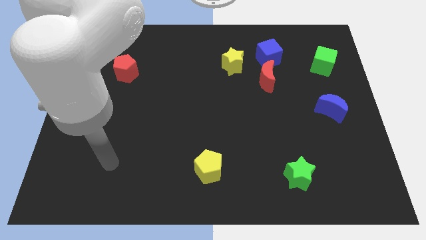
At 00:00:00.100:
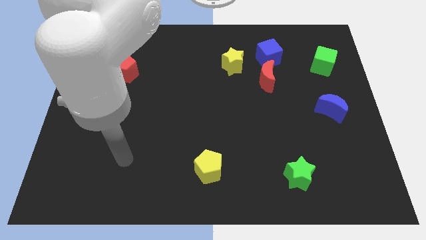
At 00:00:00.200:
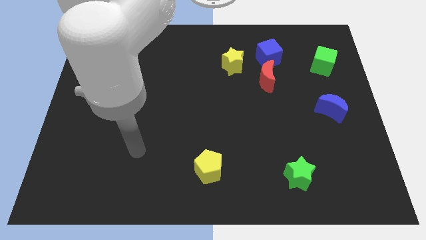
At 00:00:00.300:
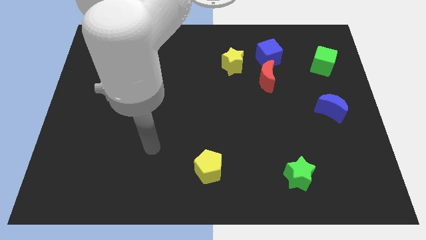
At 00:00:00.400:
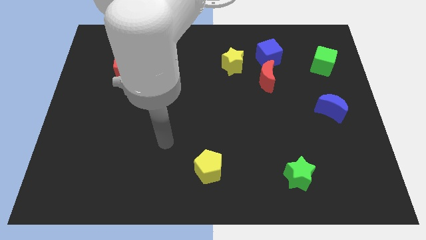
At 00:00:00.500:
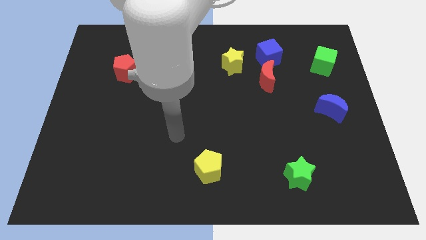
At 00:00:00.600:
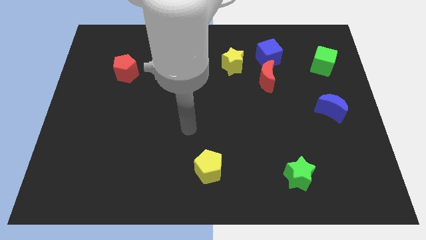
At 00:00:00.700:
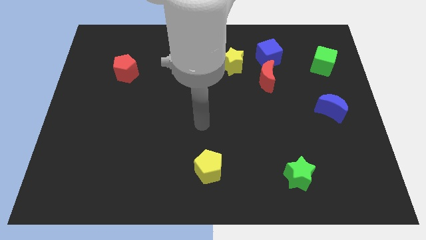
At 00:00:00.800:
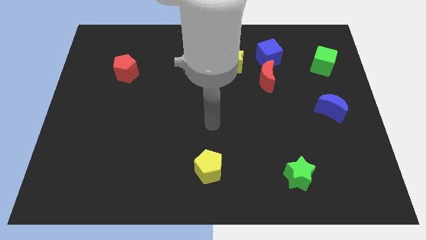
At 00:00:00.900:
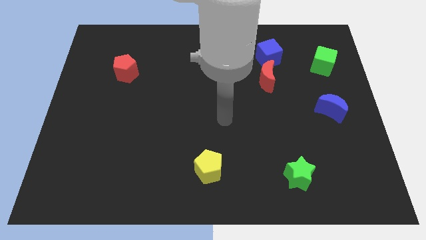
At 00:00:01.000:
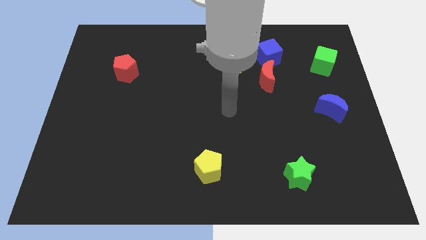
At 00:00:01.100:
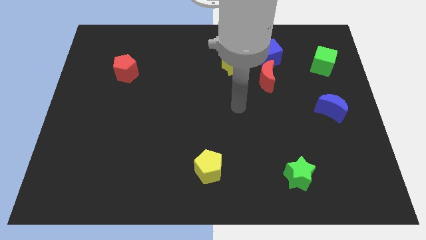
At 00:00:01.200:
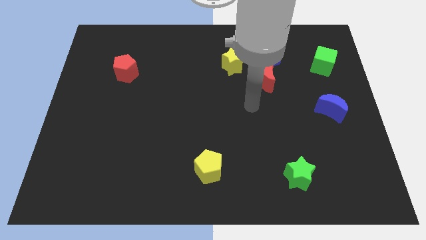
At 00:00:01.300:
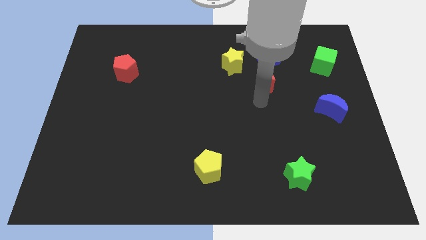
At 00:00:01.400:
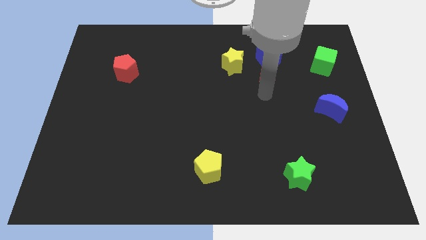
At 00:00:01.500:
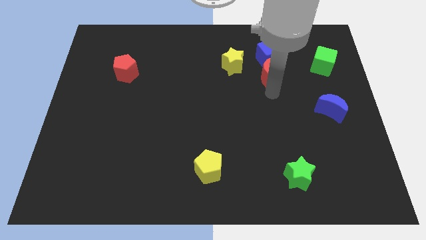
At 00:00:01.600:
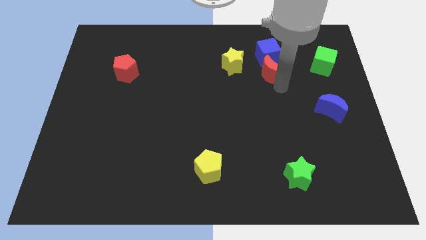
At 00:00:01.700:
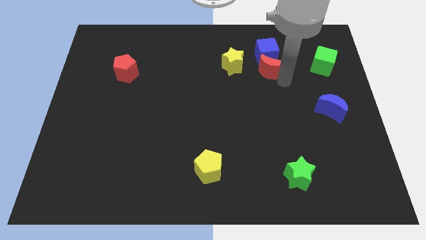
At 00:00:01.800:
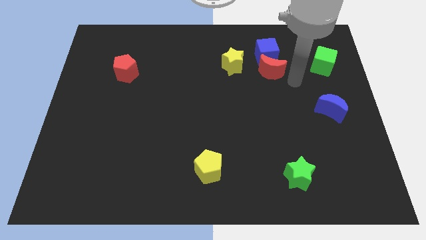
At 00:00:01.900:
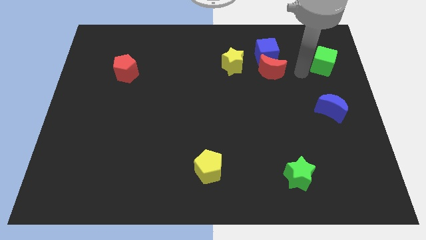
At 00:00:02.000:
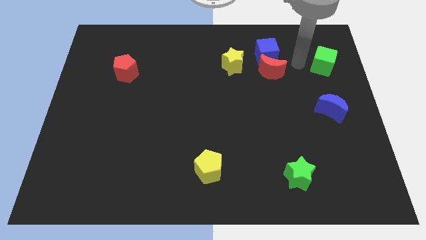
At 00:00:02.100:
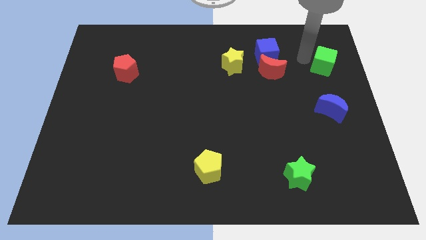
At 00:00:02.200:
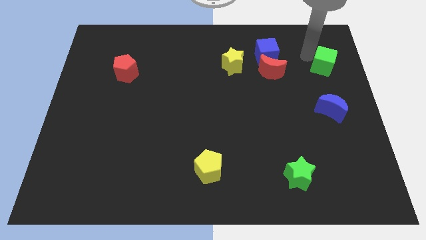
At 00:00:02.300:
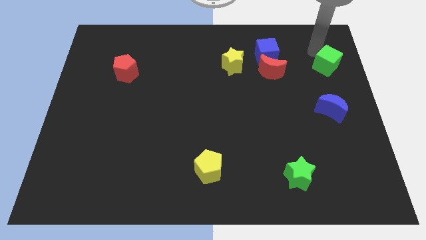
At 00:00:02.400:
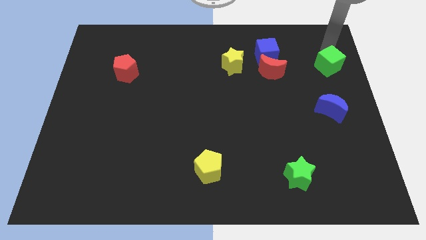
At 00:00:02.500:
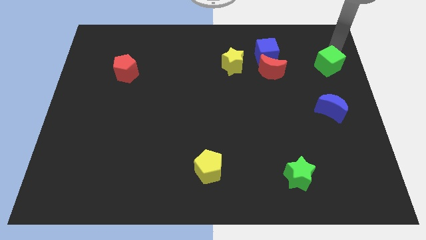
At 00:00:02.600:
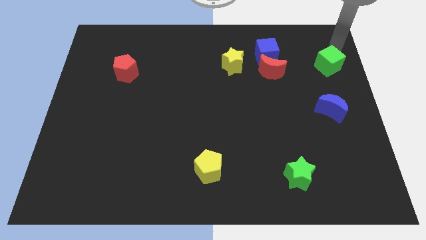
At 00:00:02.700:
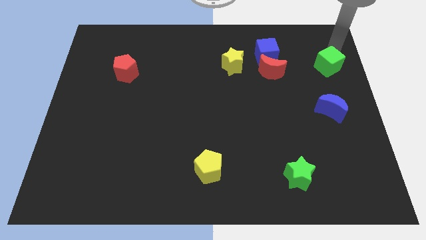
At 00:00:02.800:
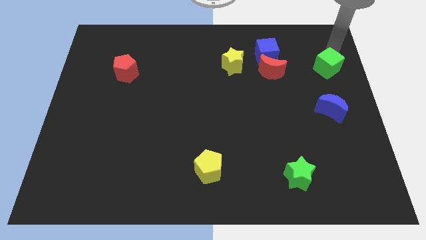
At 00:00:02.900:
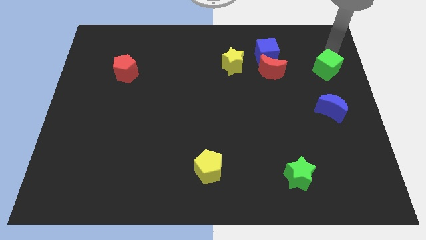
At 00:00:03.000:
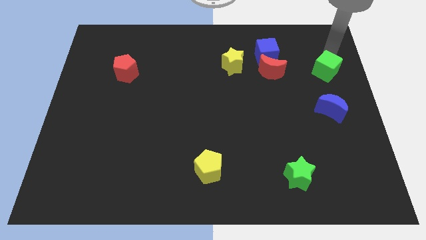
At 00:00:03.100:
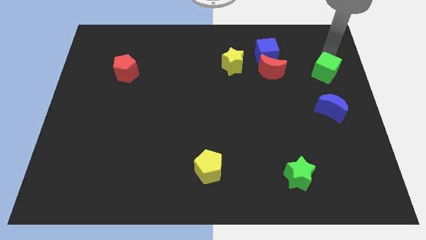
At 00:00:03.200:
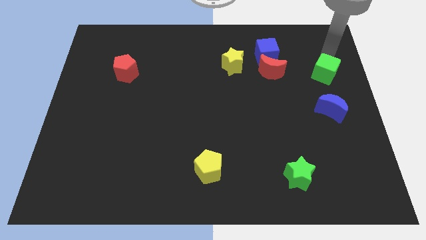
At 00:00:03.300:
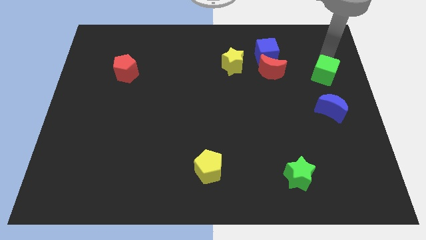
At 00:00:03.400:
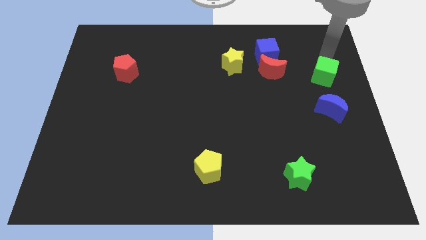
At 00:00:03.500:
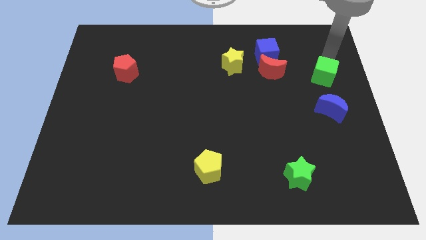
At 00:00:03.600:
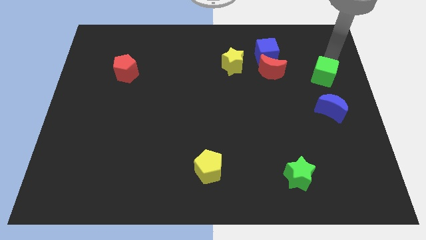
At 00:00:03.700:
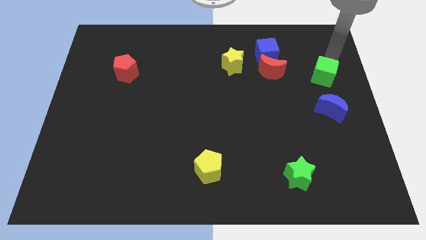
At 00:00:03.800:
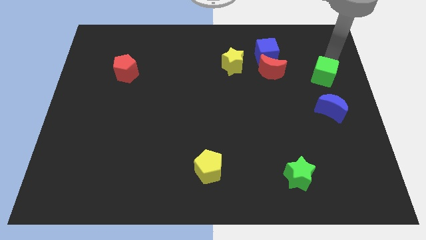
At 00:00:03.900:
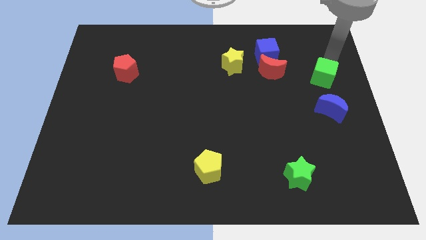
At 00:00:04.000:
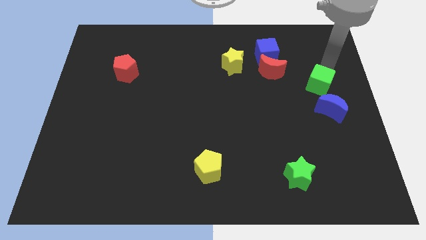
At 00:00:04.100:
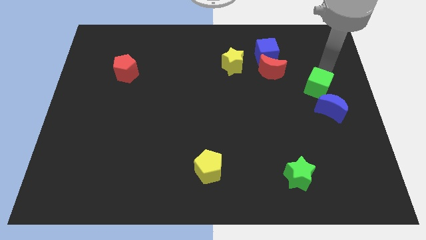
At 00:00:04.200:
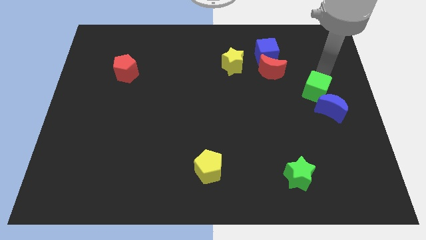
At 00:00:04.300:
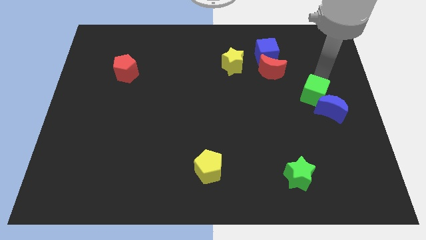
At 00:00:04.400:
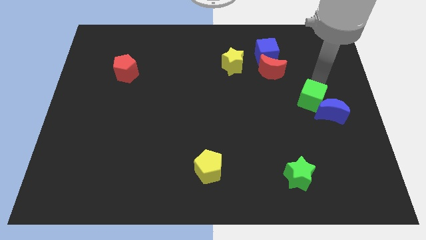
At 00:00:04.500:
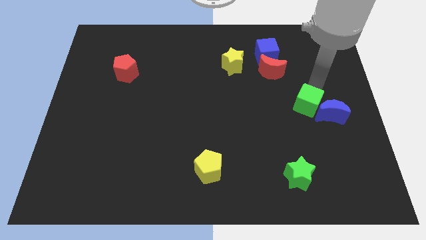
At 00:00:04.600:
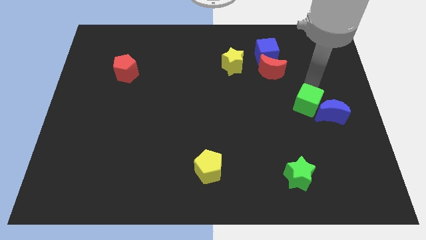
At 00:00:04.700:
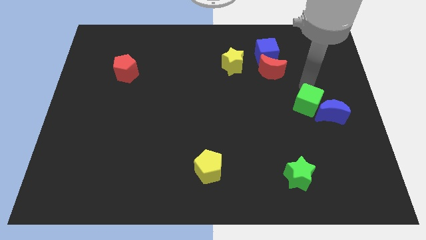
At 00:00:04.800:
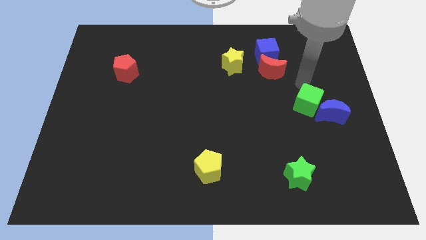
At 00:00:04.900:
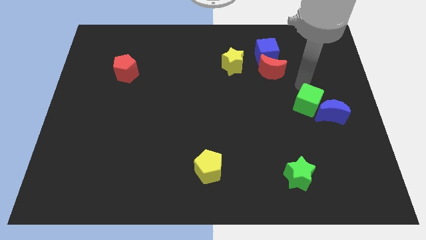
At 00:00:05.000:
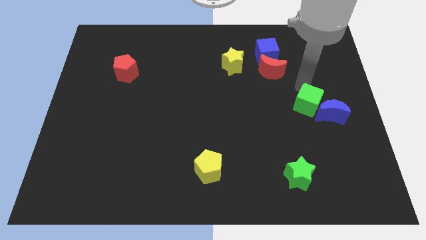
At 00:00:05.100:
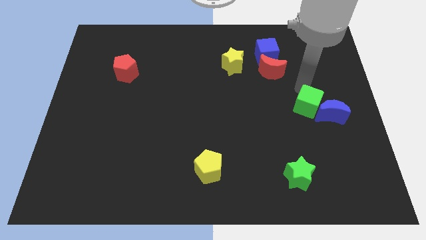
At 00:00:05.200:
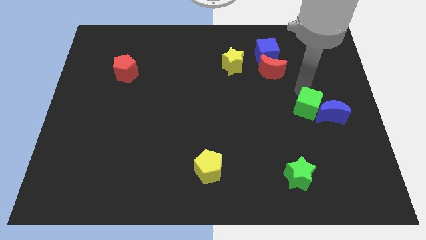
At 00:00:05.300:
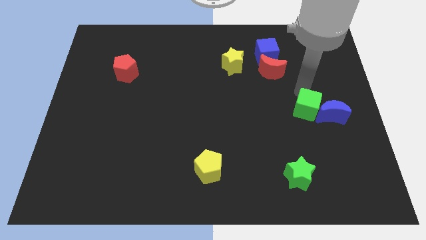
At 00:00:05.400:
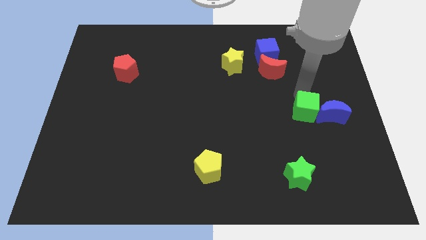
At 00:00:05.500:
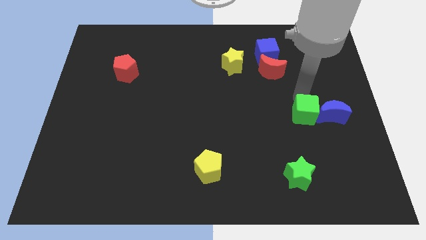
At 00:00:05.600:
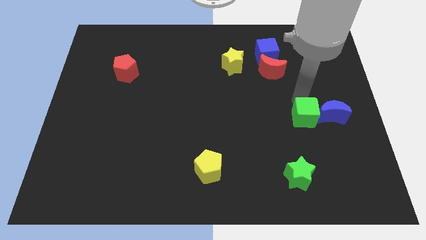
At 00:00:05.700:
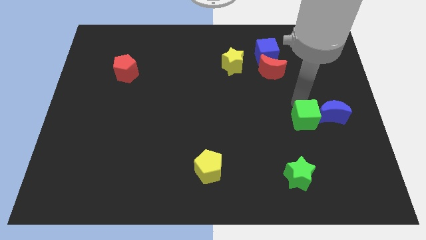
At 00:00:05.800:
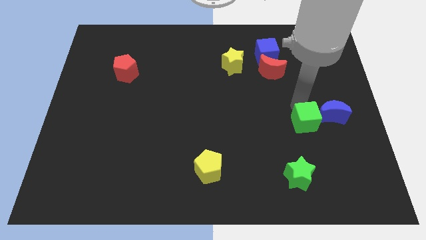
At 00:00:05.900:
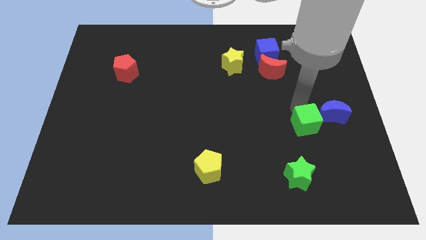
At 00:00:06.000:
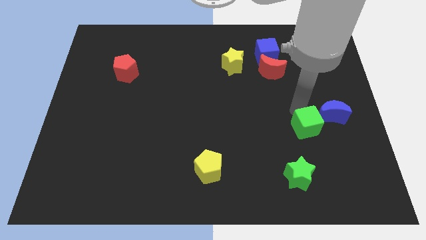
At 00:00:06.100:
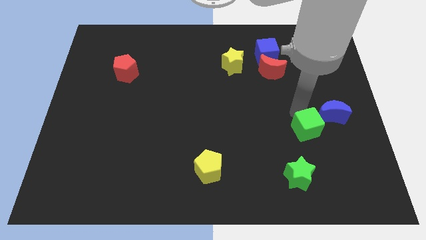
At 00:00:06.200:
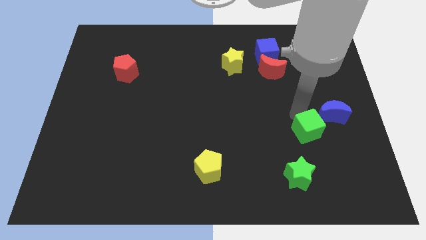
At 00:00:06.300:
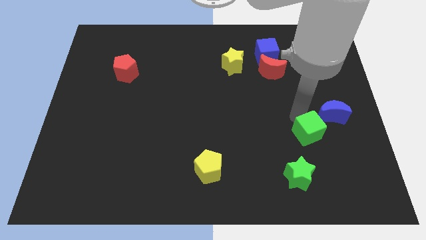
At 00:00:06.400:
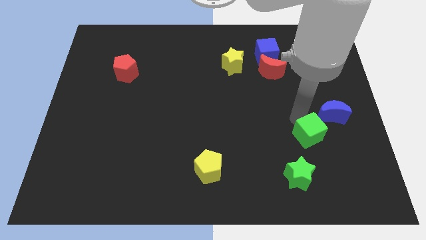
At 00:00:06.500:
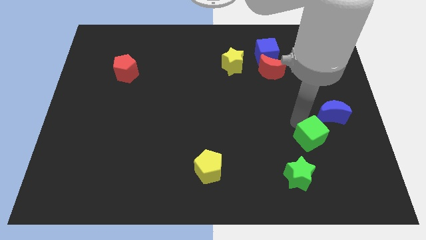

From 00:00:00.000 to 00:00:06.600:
push the green cube down

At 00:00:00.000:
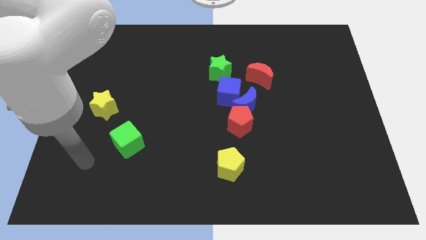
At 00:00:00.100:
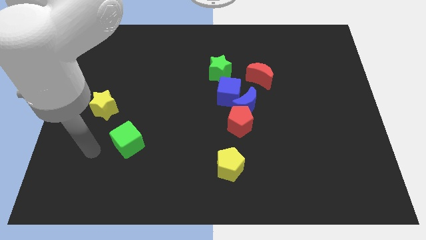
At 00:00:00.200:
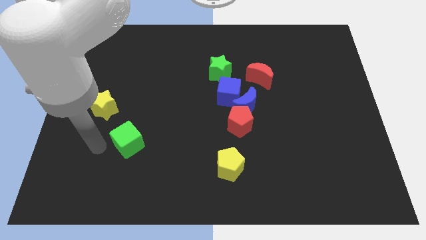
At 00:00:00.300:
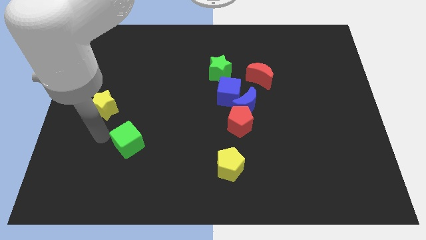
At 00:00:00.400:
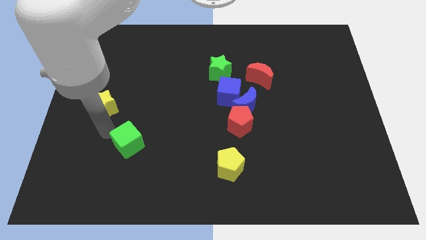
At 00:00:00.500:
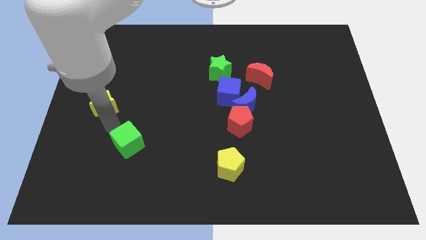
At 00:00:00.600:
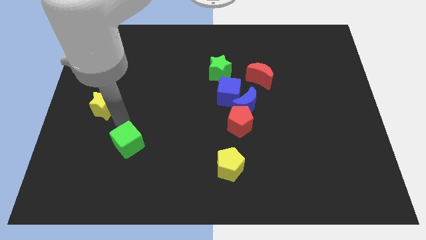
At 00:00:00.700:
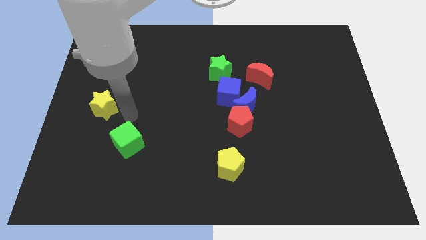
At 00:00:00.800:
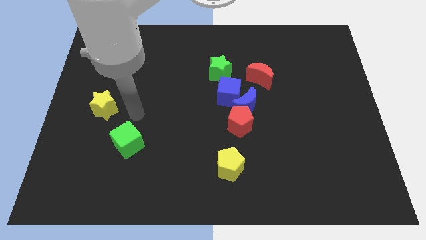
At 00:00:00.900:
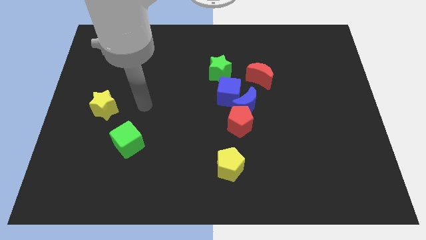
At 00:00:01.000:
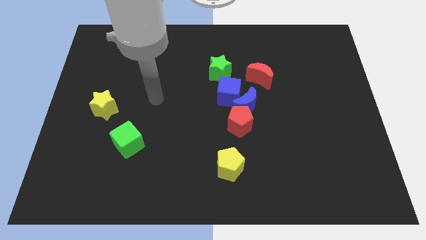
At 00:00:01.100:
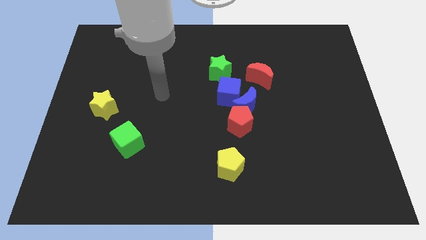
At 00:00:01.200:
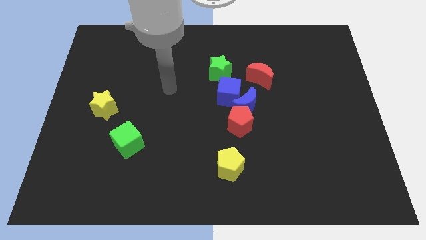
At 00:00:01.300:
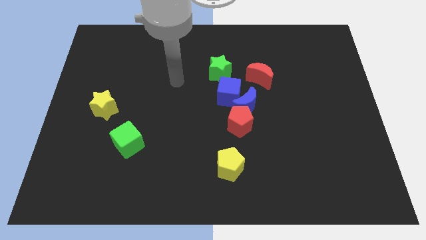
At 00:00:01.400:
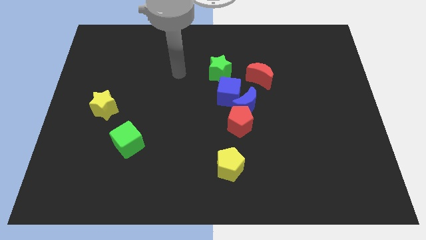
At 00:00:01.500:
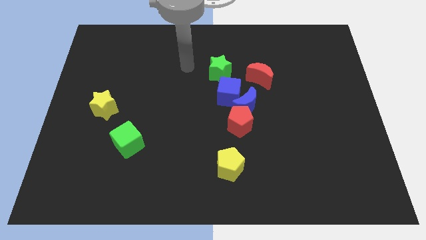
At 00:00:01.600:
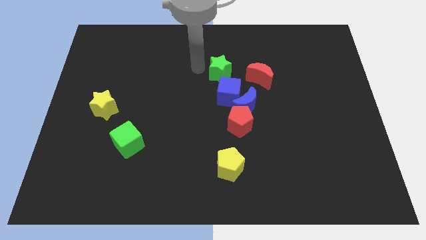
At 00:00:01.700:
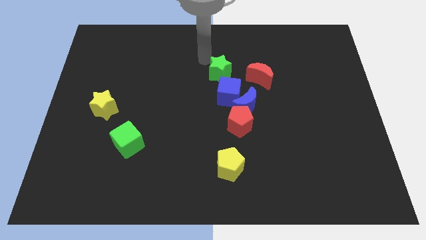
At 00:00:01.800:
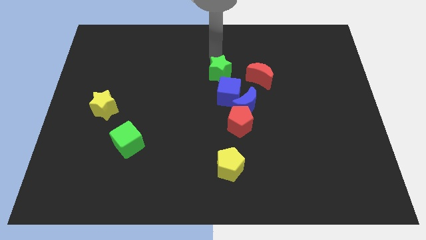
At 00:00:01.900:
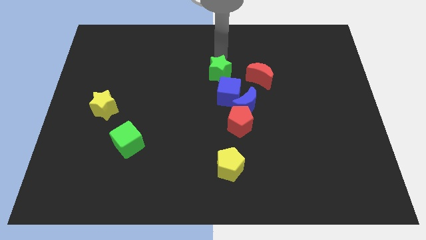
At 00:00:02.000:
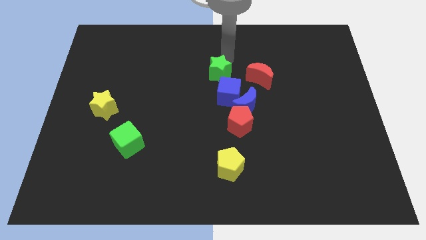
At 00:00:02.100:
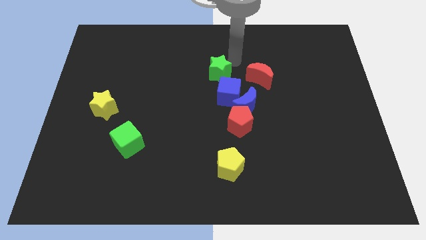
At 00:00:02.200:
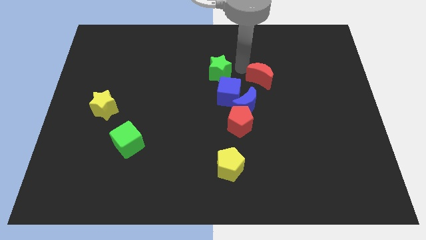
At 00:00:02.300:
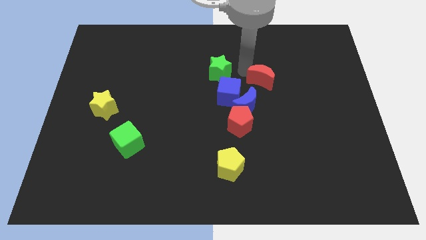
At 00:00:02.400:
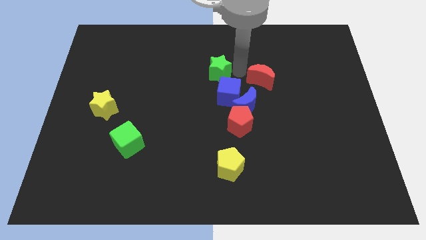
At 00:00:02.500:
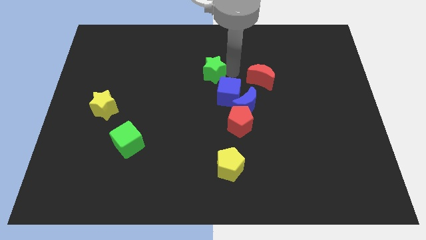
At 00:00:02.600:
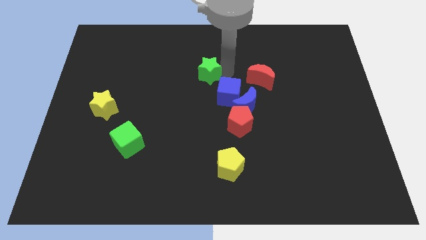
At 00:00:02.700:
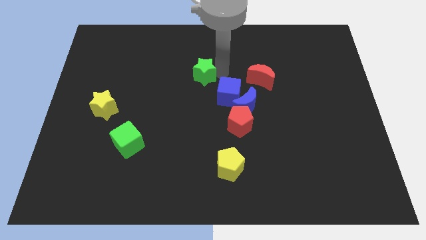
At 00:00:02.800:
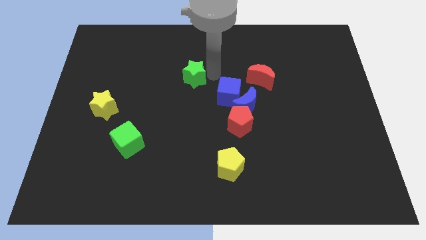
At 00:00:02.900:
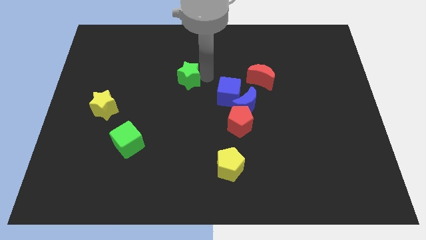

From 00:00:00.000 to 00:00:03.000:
slide the green star a little to the left
